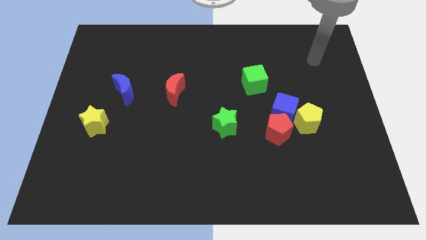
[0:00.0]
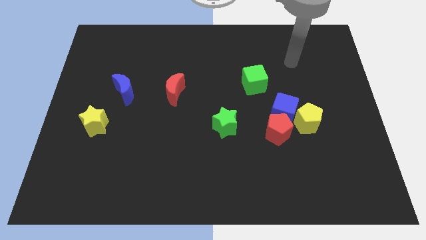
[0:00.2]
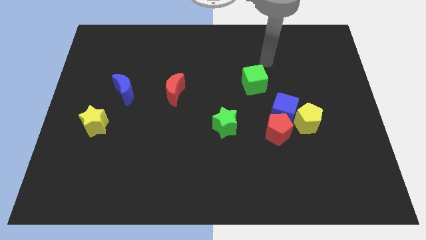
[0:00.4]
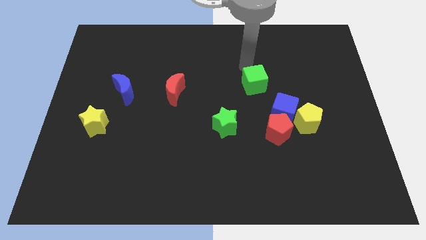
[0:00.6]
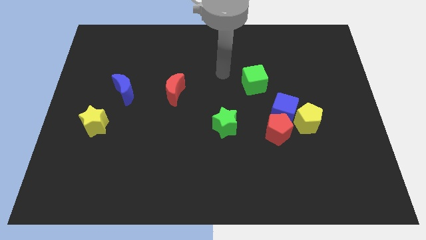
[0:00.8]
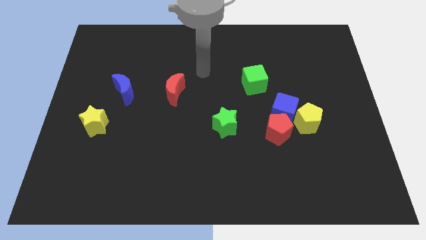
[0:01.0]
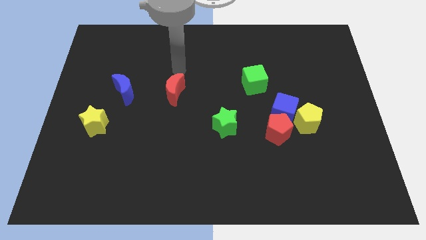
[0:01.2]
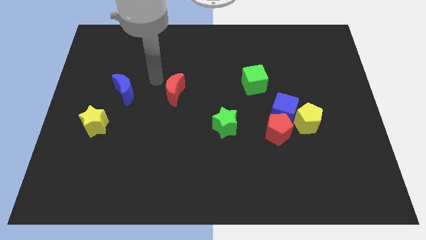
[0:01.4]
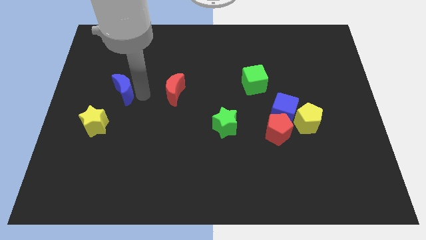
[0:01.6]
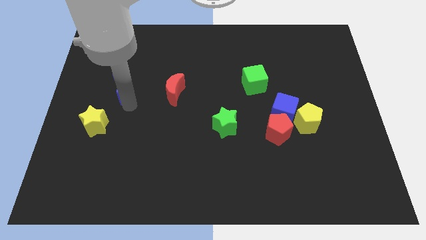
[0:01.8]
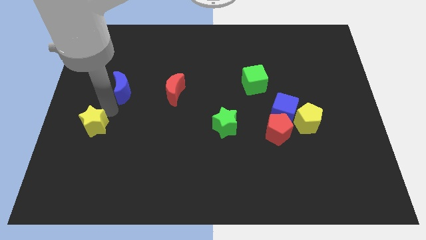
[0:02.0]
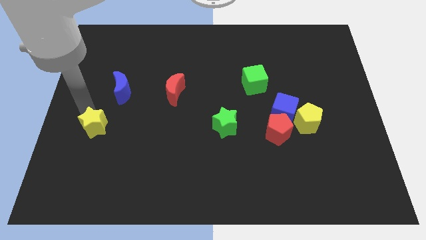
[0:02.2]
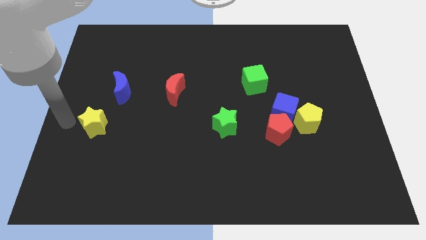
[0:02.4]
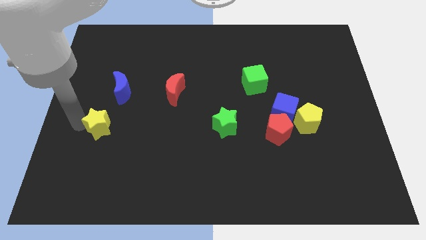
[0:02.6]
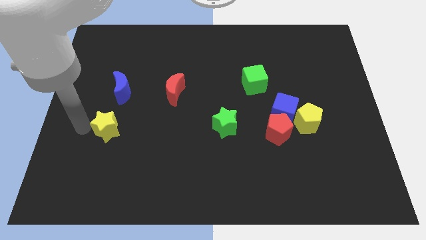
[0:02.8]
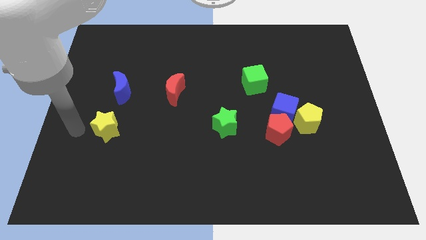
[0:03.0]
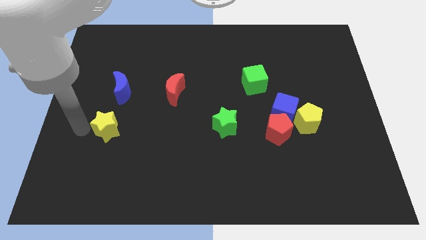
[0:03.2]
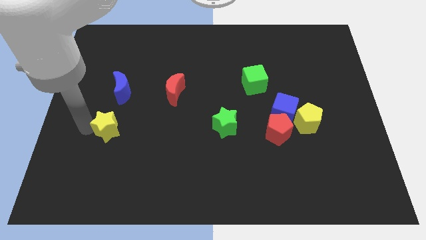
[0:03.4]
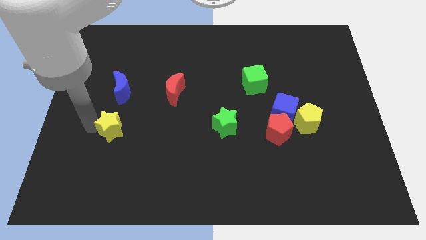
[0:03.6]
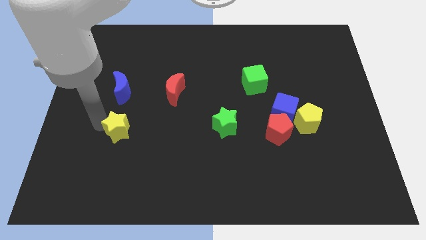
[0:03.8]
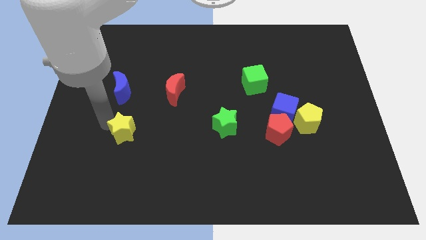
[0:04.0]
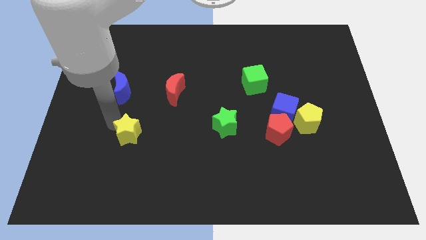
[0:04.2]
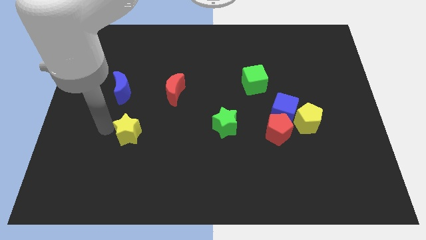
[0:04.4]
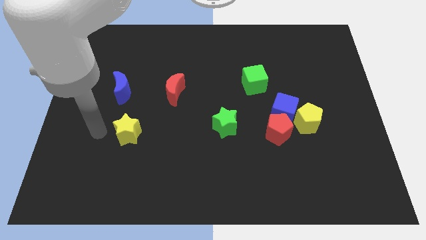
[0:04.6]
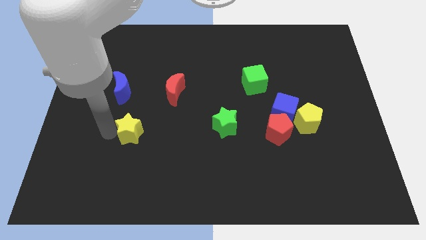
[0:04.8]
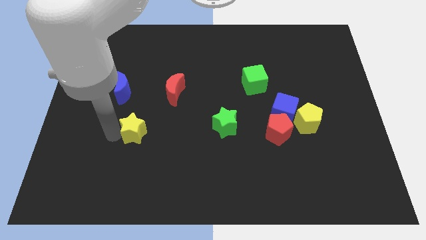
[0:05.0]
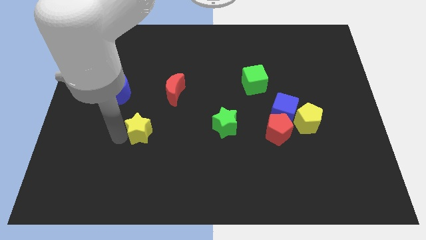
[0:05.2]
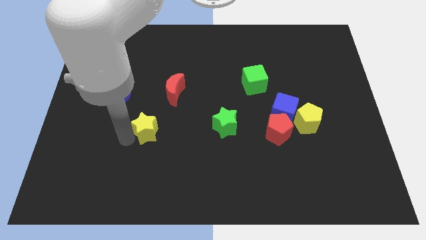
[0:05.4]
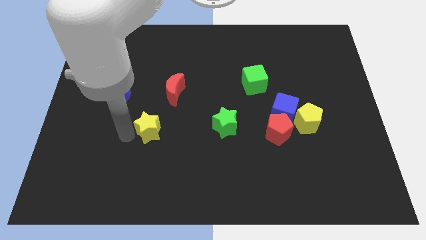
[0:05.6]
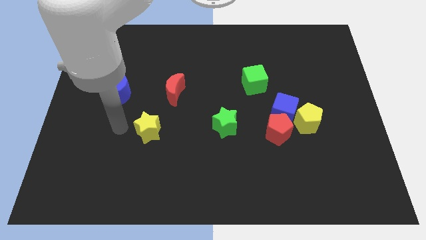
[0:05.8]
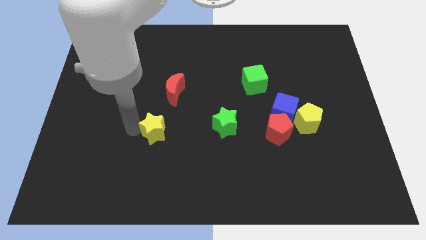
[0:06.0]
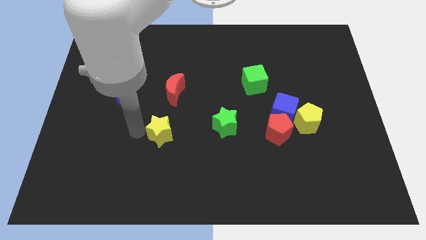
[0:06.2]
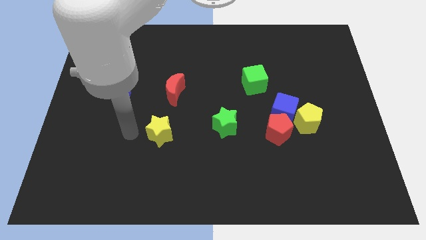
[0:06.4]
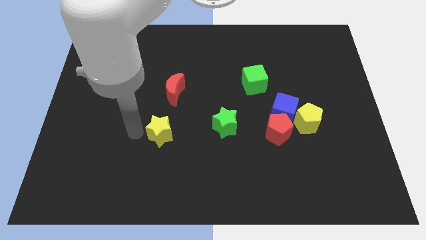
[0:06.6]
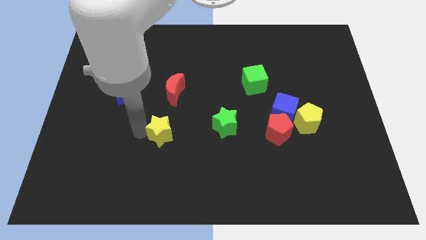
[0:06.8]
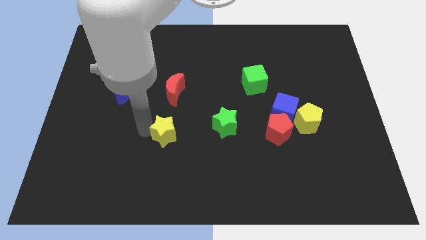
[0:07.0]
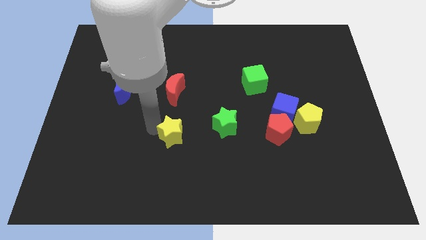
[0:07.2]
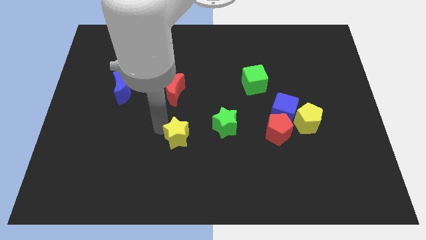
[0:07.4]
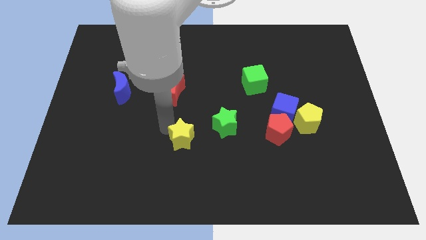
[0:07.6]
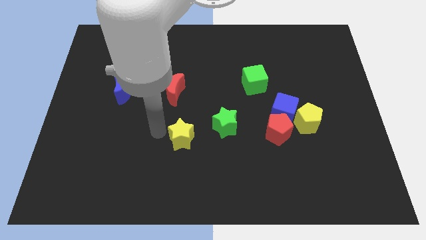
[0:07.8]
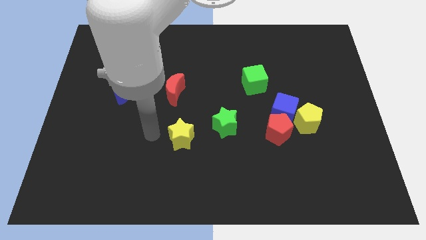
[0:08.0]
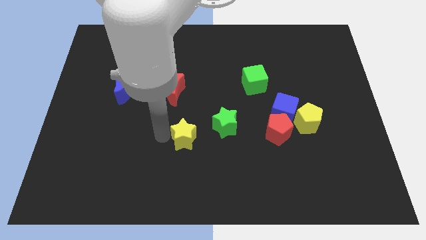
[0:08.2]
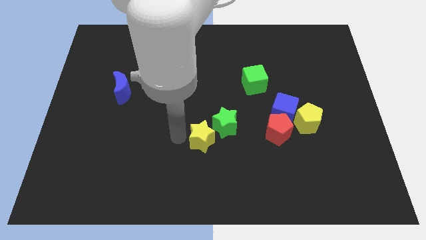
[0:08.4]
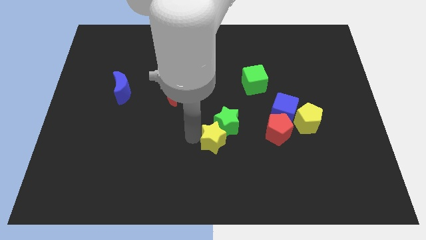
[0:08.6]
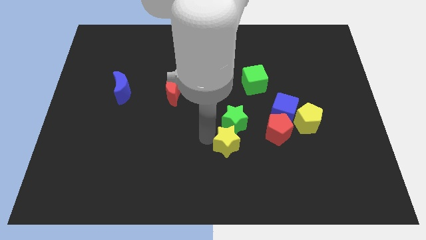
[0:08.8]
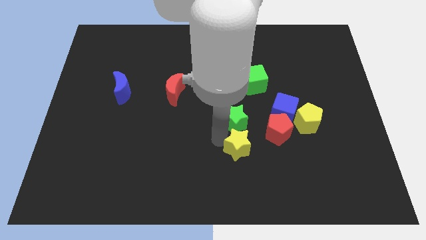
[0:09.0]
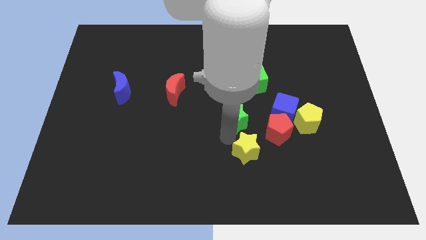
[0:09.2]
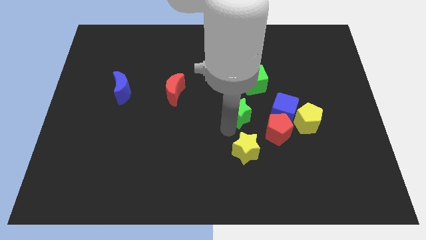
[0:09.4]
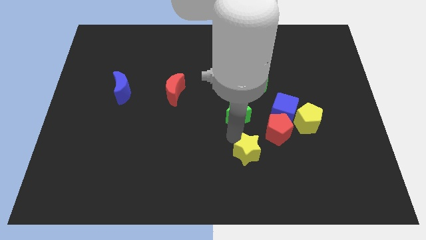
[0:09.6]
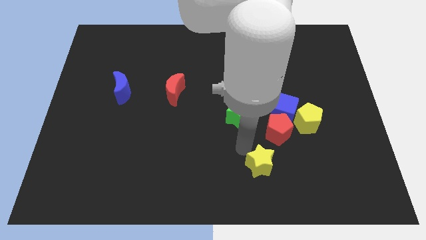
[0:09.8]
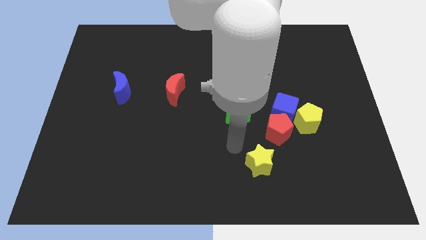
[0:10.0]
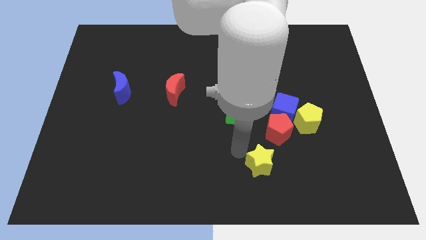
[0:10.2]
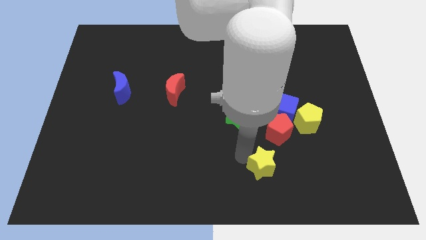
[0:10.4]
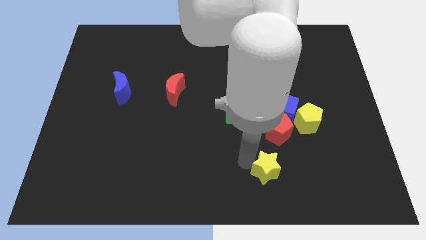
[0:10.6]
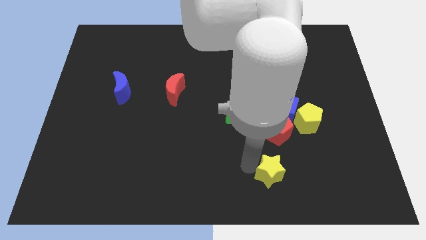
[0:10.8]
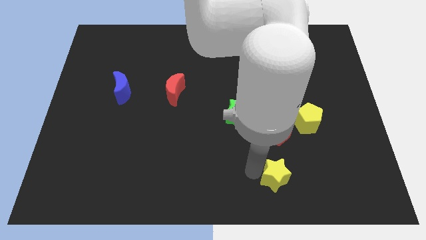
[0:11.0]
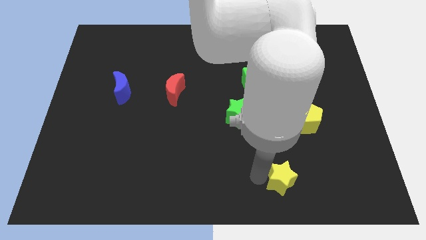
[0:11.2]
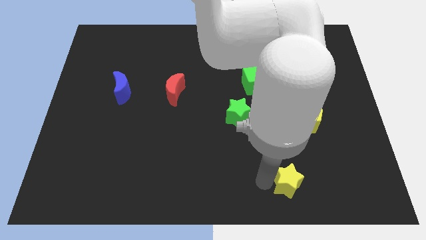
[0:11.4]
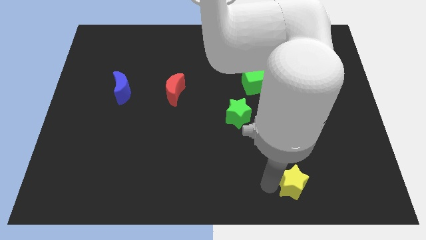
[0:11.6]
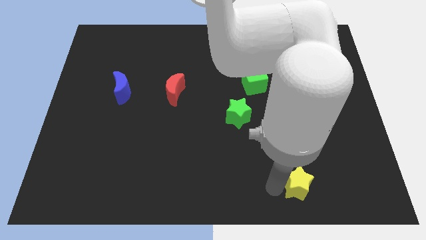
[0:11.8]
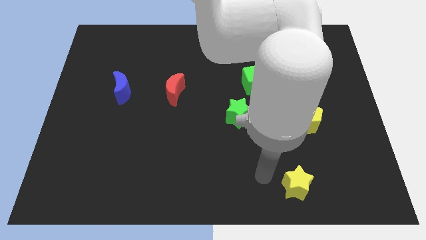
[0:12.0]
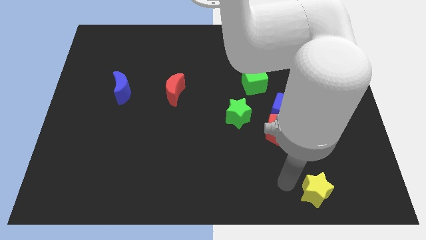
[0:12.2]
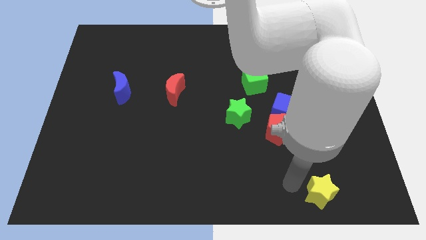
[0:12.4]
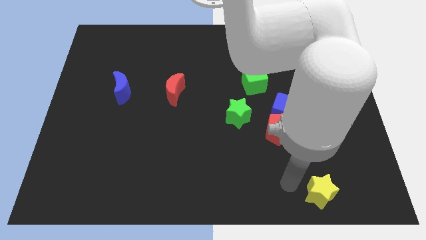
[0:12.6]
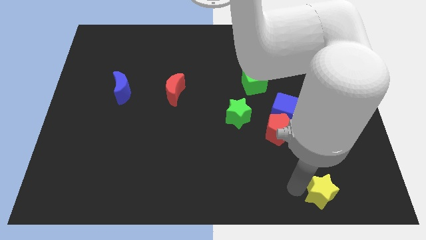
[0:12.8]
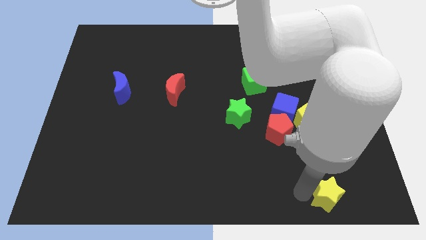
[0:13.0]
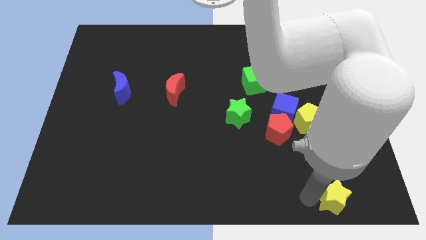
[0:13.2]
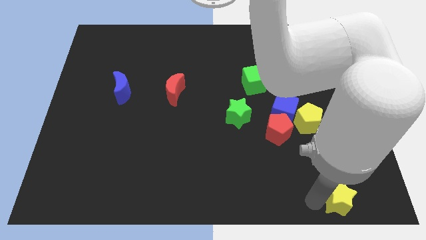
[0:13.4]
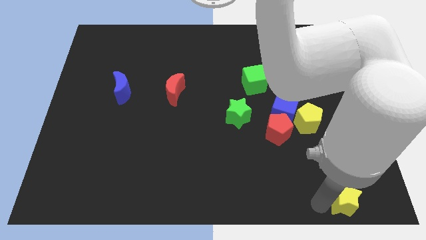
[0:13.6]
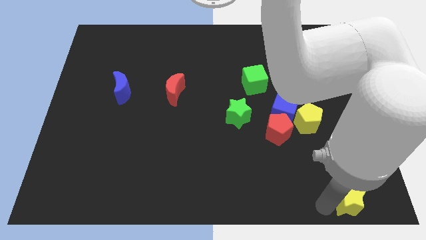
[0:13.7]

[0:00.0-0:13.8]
move the yellow star to the lower right corner

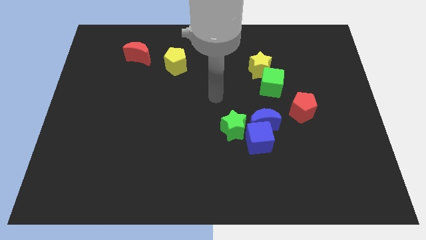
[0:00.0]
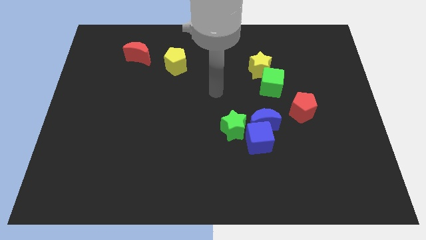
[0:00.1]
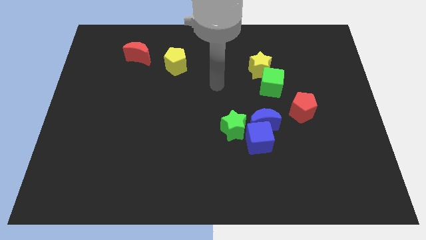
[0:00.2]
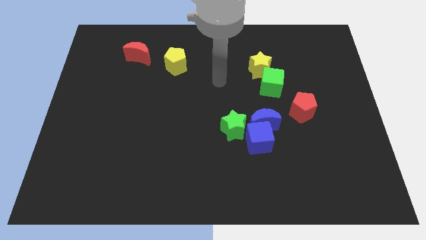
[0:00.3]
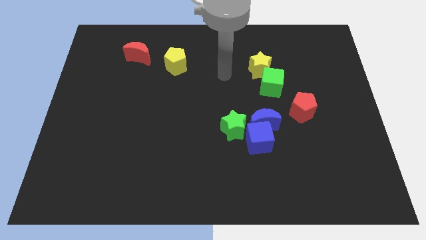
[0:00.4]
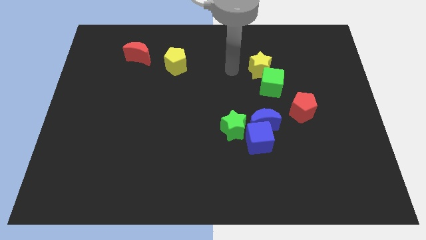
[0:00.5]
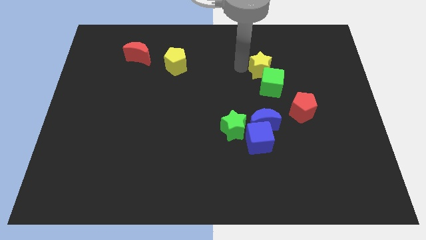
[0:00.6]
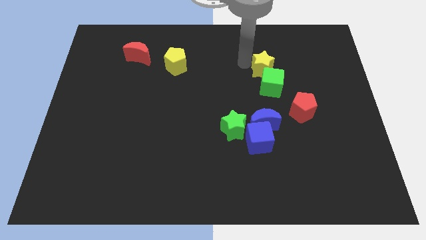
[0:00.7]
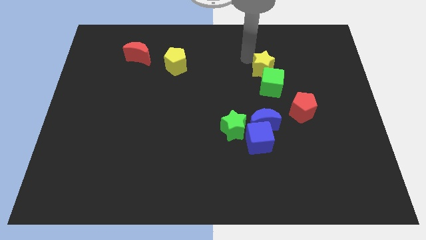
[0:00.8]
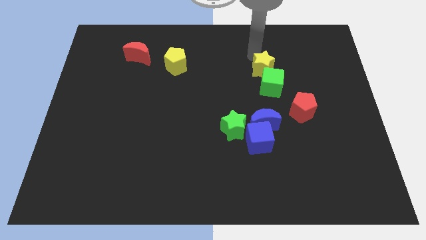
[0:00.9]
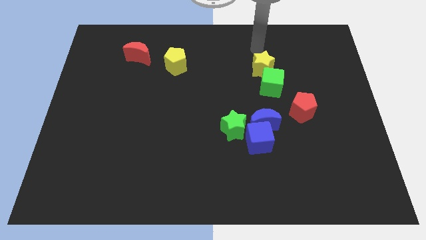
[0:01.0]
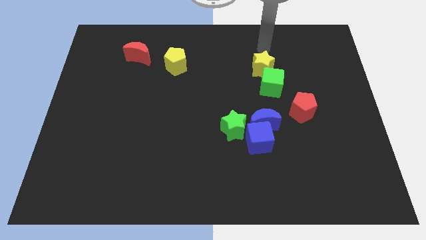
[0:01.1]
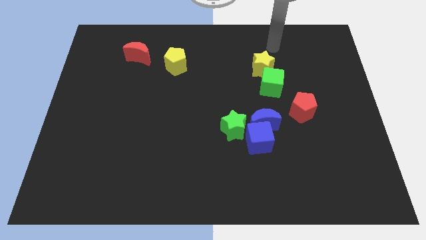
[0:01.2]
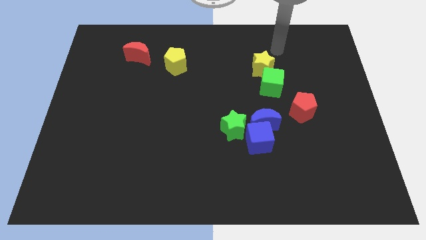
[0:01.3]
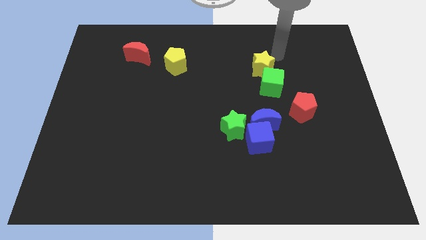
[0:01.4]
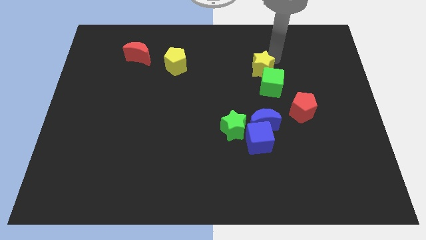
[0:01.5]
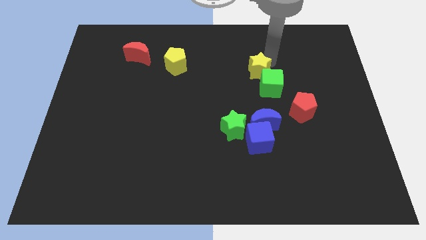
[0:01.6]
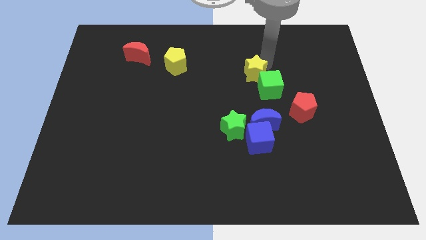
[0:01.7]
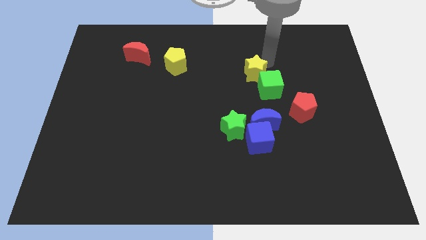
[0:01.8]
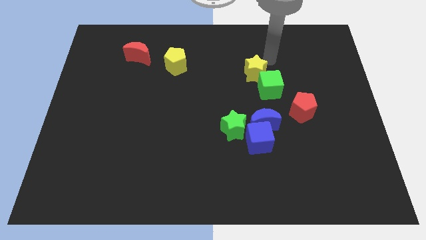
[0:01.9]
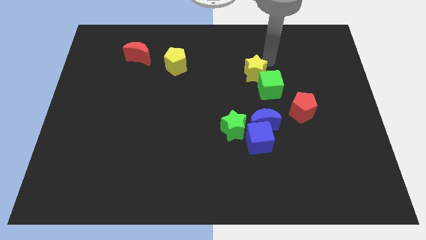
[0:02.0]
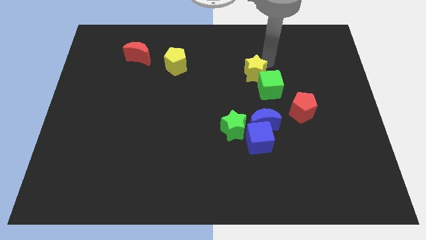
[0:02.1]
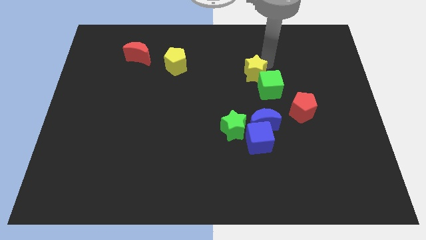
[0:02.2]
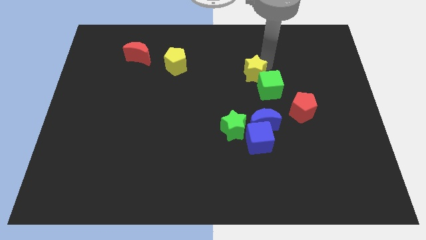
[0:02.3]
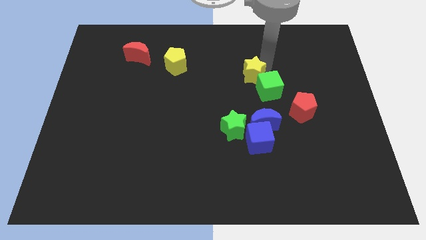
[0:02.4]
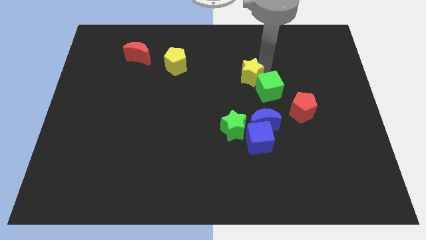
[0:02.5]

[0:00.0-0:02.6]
slide the yellow star to the center of the board
